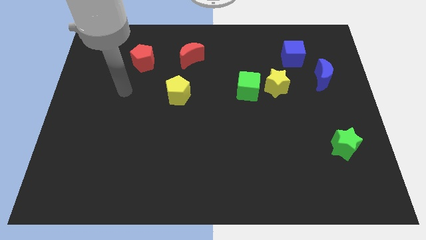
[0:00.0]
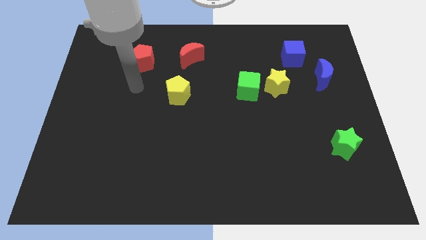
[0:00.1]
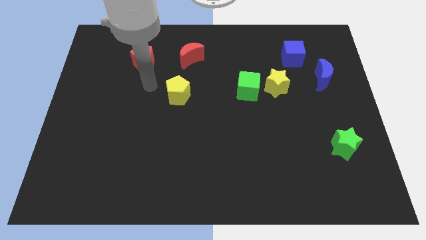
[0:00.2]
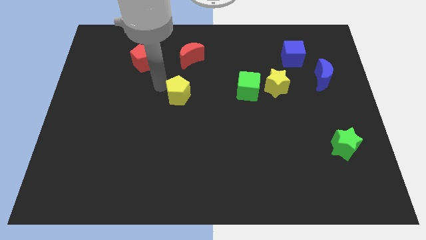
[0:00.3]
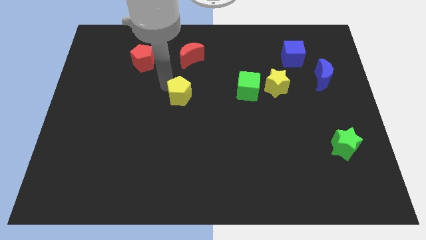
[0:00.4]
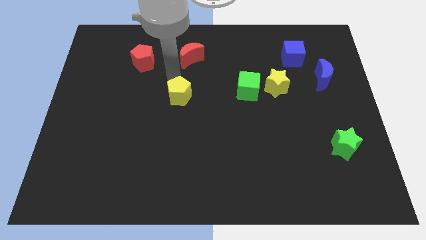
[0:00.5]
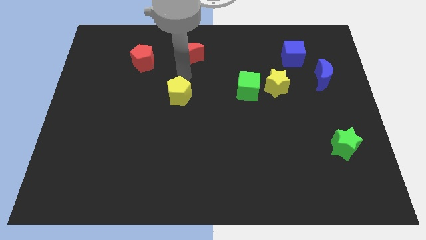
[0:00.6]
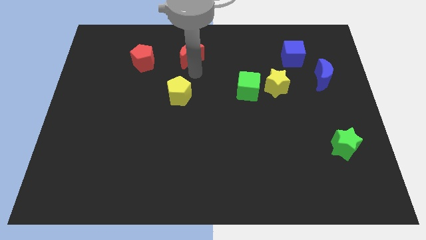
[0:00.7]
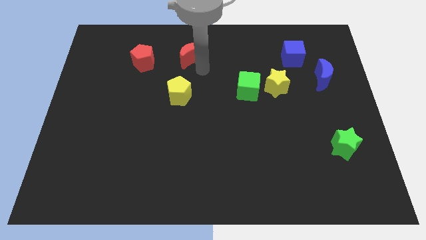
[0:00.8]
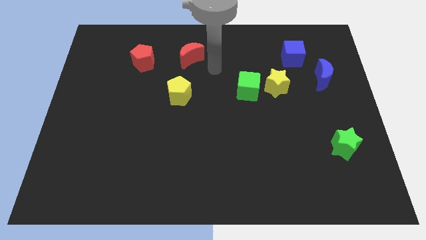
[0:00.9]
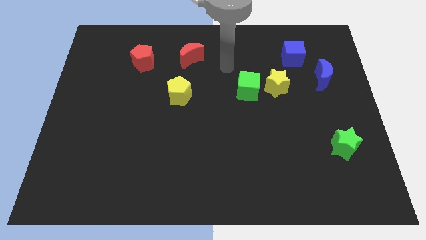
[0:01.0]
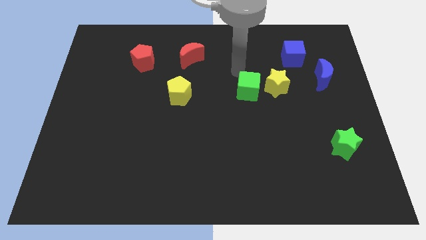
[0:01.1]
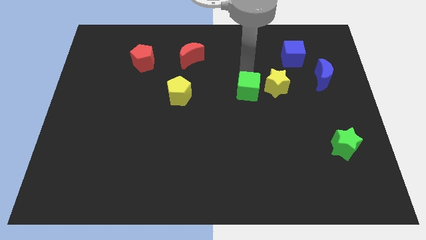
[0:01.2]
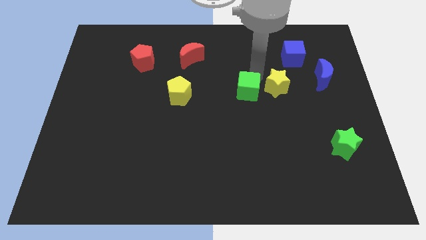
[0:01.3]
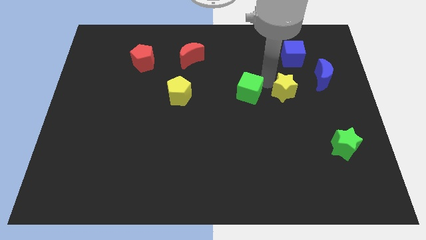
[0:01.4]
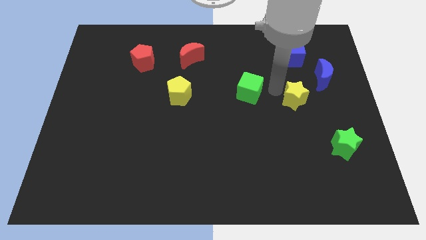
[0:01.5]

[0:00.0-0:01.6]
pull the green cube apart from the yellow star

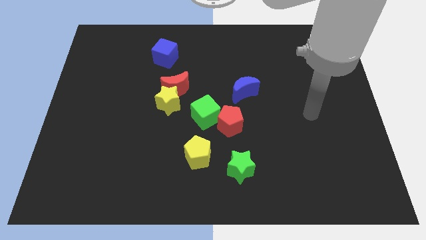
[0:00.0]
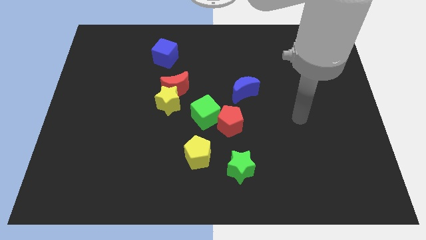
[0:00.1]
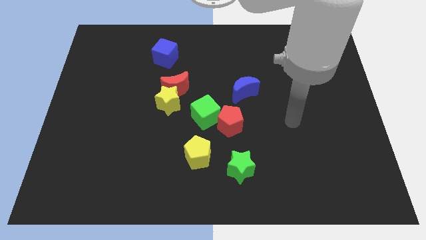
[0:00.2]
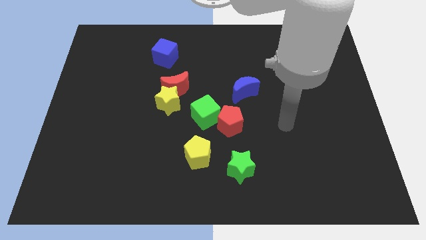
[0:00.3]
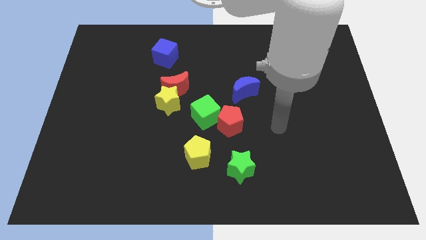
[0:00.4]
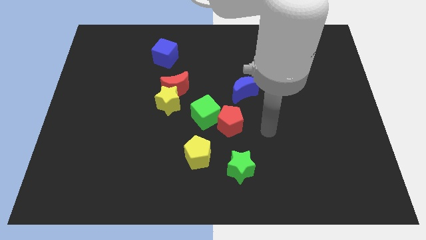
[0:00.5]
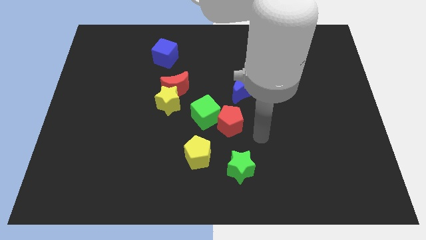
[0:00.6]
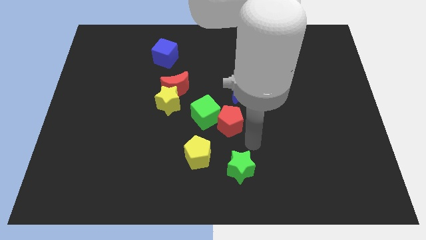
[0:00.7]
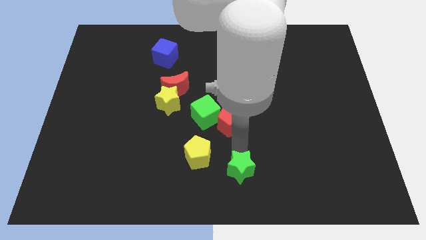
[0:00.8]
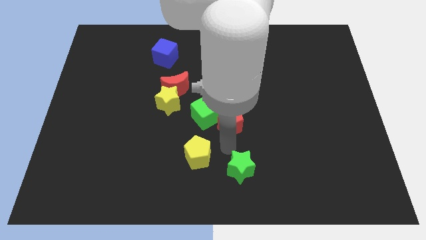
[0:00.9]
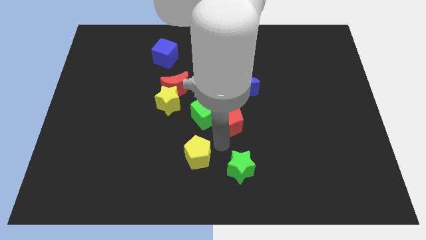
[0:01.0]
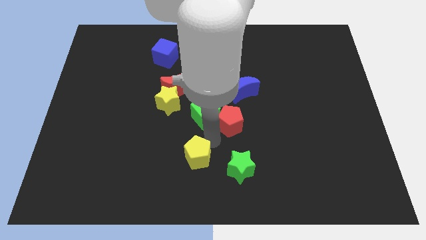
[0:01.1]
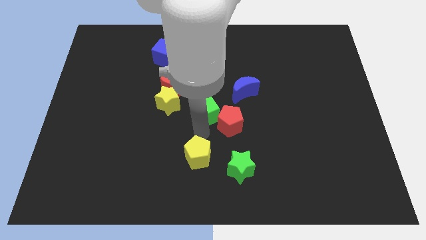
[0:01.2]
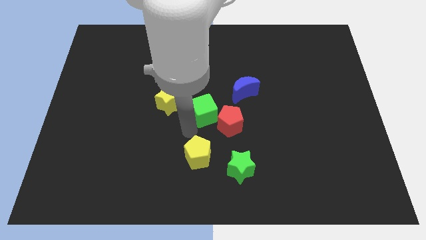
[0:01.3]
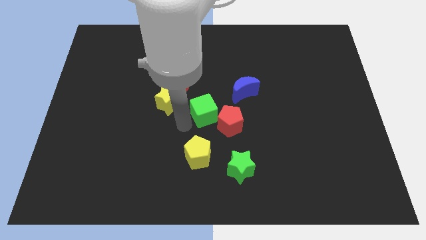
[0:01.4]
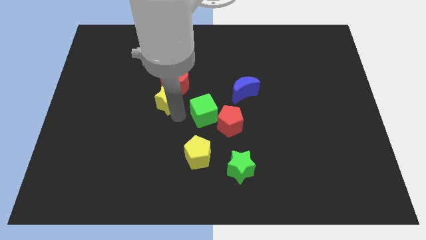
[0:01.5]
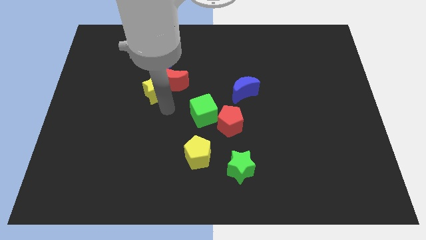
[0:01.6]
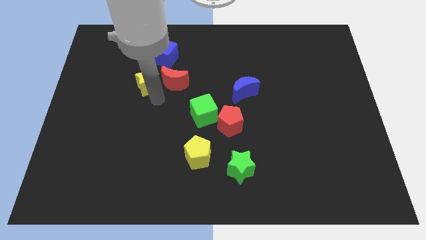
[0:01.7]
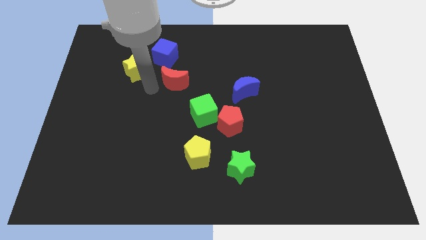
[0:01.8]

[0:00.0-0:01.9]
separate the red moon from the yellow star

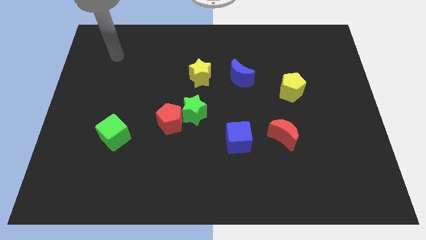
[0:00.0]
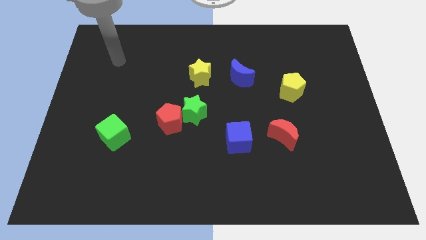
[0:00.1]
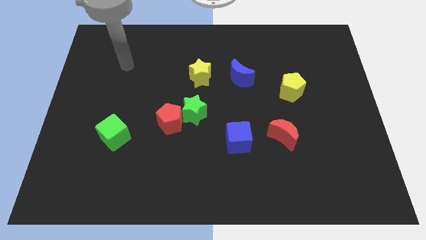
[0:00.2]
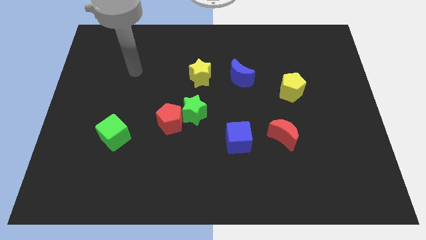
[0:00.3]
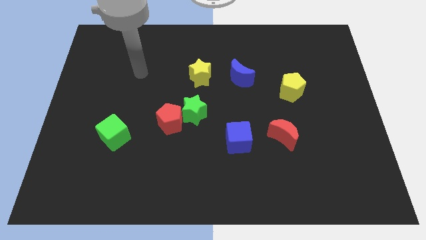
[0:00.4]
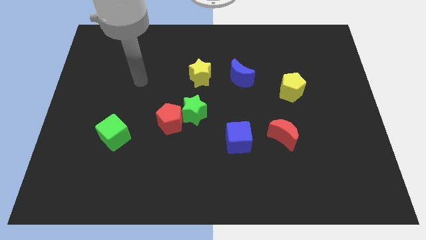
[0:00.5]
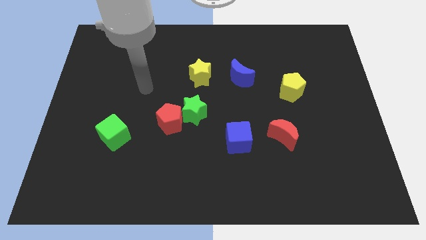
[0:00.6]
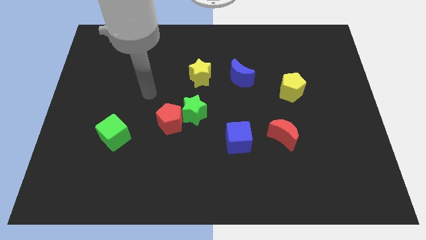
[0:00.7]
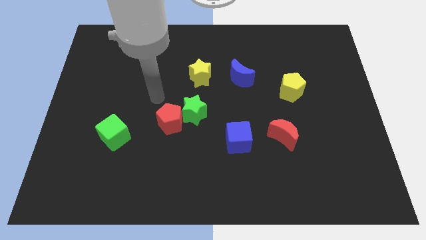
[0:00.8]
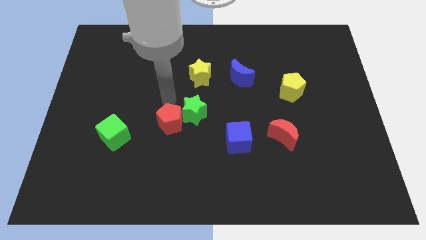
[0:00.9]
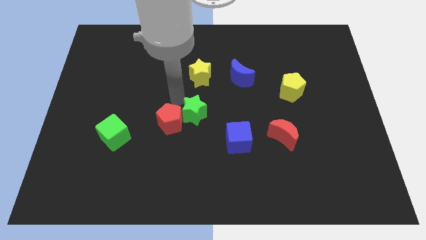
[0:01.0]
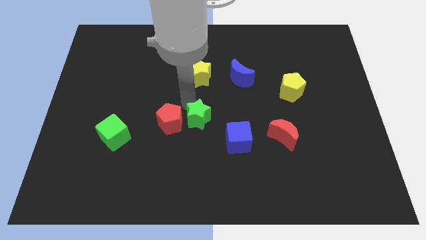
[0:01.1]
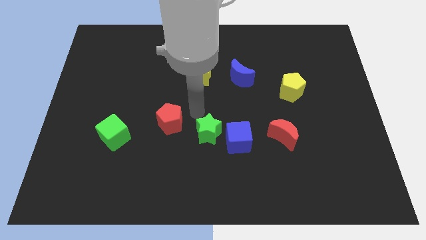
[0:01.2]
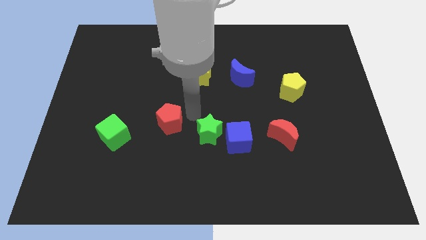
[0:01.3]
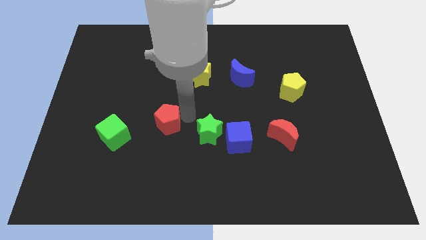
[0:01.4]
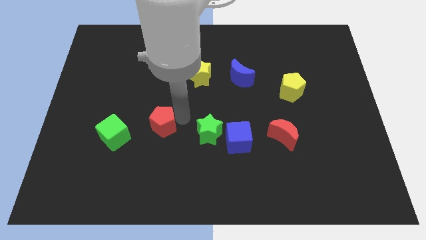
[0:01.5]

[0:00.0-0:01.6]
separate the red pentagon from the green star

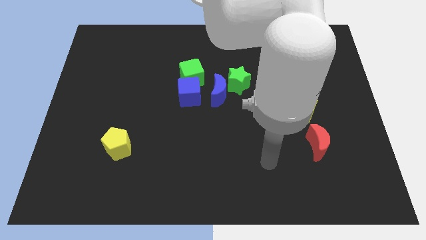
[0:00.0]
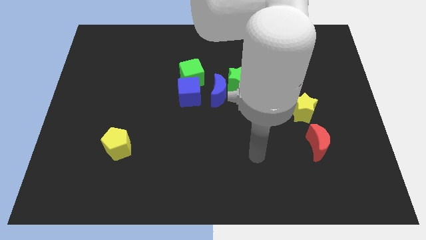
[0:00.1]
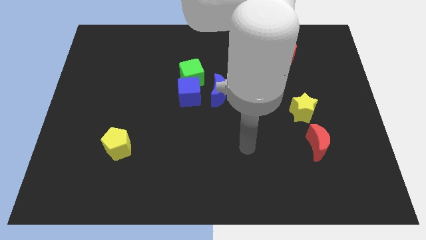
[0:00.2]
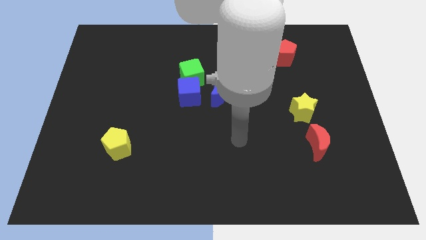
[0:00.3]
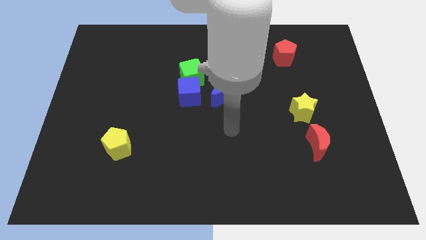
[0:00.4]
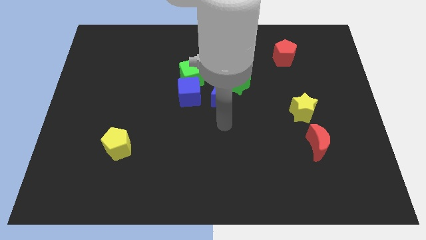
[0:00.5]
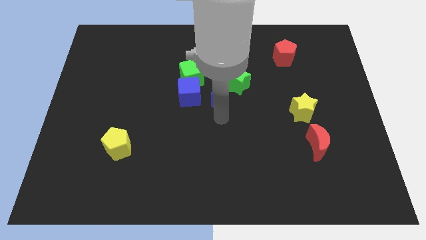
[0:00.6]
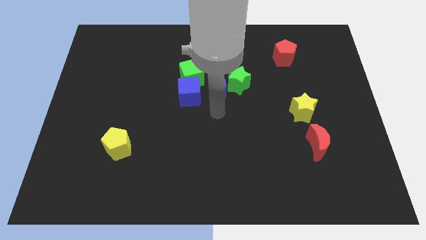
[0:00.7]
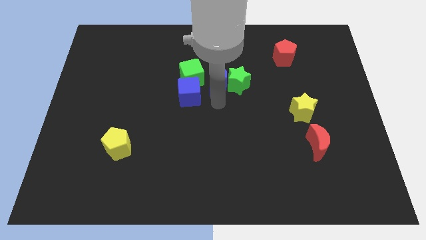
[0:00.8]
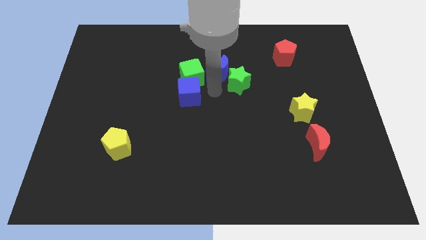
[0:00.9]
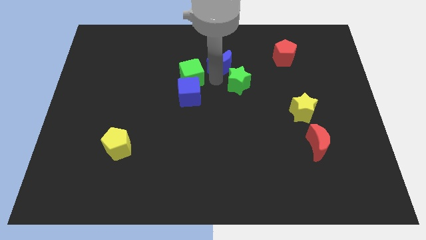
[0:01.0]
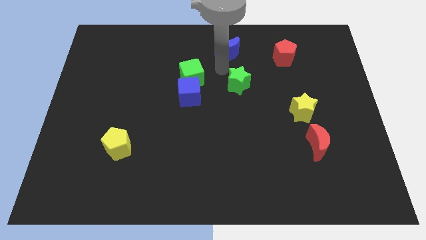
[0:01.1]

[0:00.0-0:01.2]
pull the green star apart from the blue moon

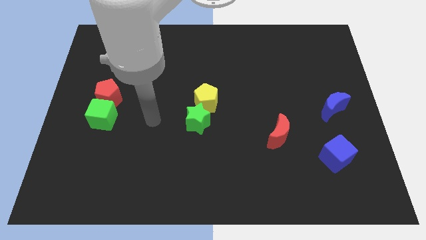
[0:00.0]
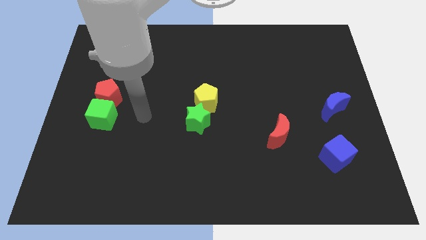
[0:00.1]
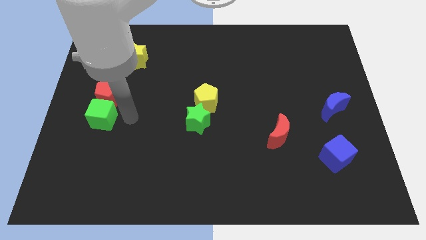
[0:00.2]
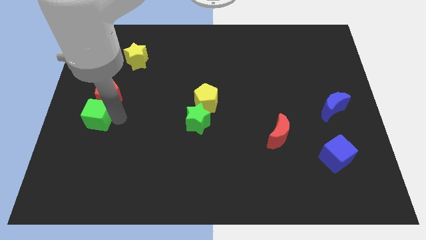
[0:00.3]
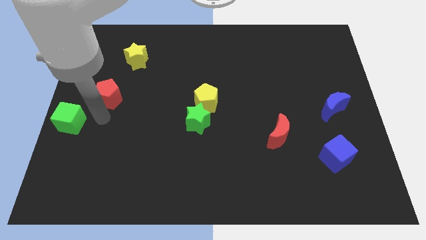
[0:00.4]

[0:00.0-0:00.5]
pull the red pentagon apart from the green cube

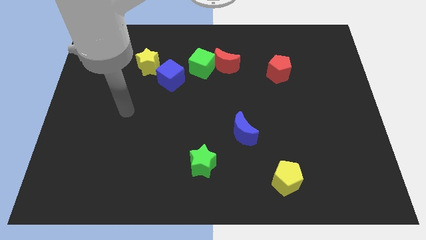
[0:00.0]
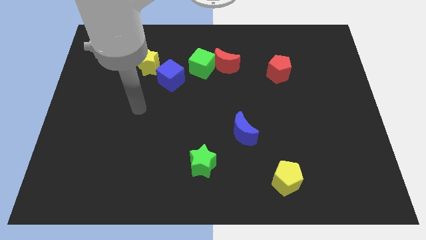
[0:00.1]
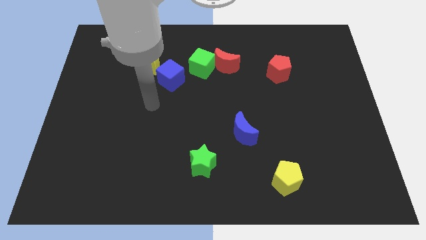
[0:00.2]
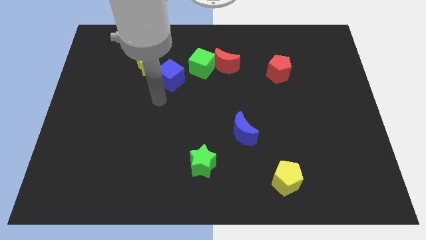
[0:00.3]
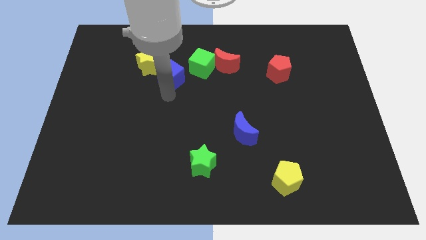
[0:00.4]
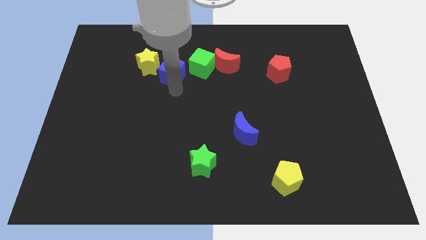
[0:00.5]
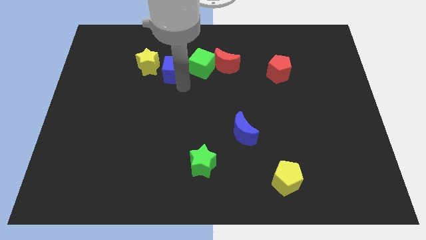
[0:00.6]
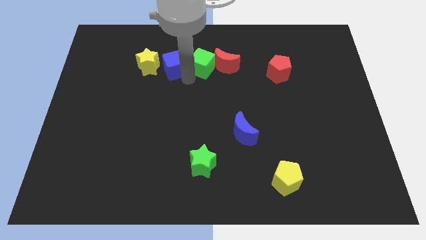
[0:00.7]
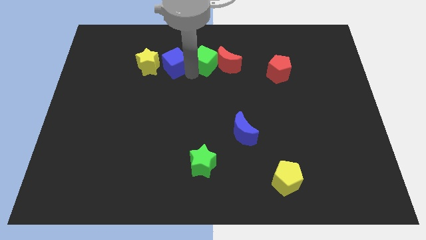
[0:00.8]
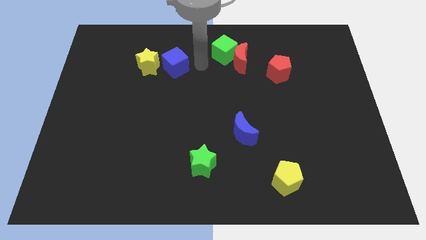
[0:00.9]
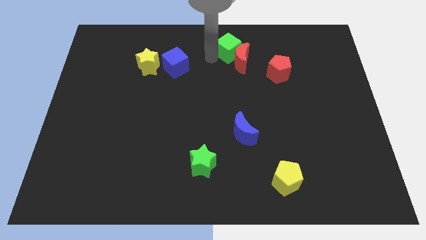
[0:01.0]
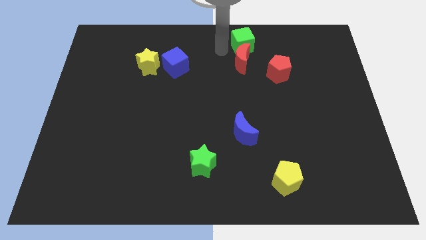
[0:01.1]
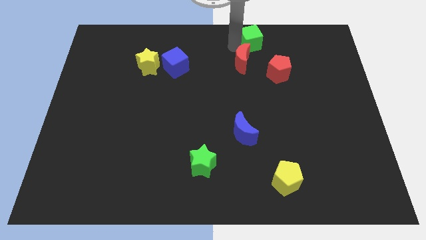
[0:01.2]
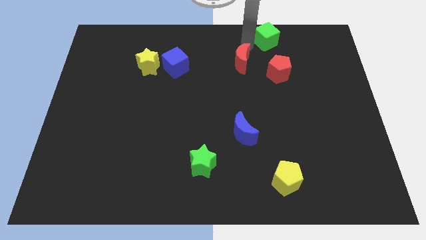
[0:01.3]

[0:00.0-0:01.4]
pull the red moon apart from the green cube

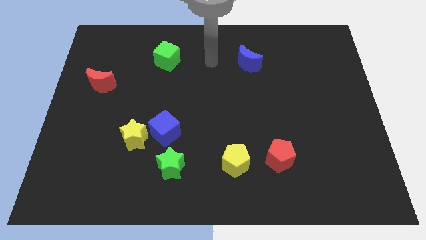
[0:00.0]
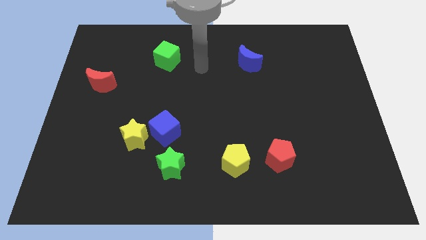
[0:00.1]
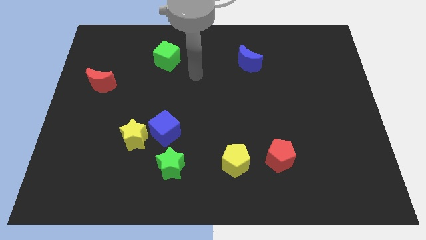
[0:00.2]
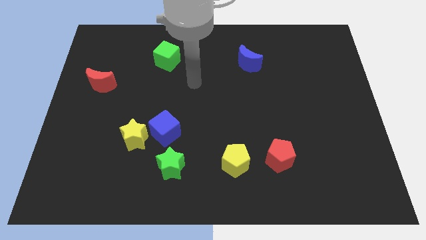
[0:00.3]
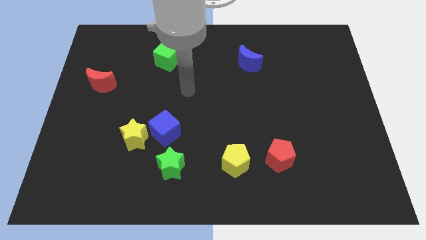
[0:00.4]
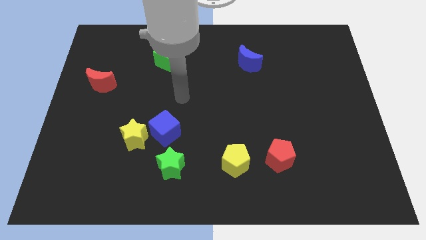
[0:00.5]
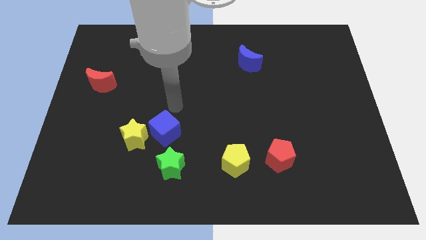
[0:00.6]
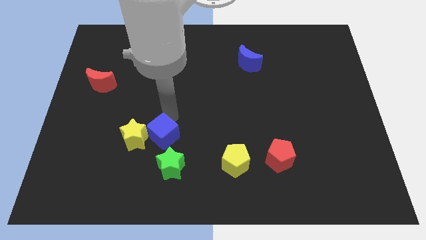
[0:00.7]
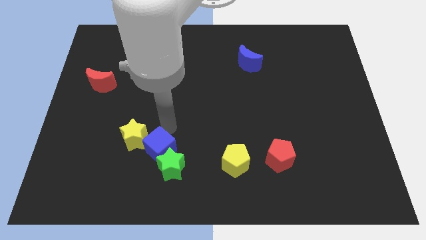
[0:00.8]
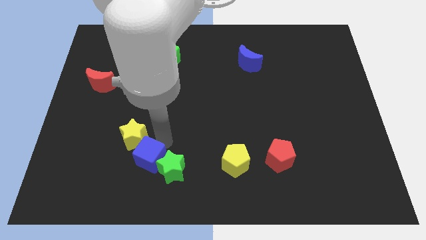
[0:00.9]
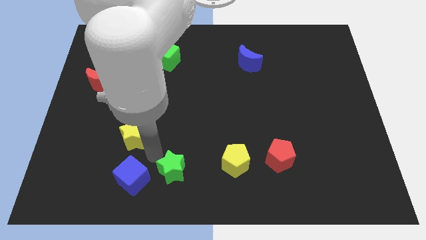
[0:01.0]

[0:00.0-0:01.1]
pull the yellow star apart from the blue cube
